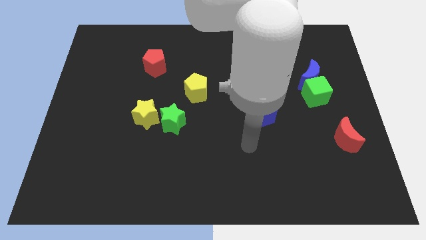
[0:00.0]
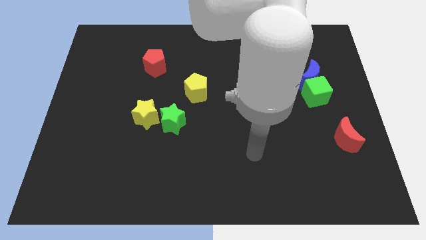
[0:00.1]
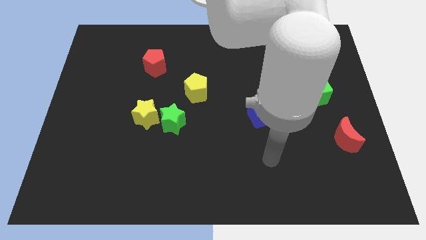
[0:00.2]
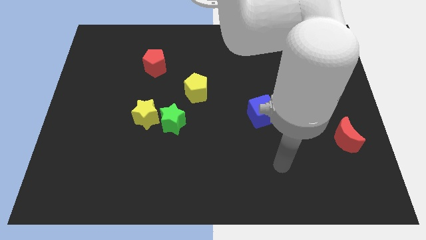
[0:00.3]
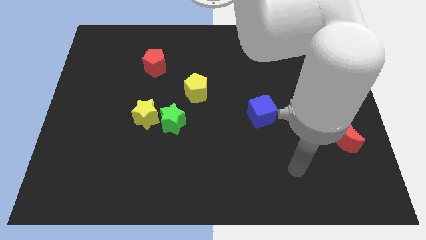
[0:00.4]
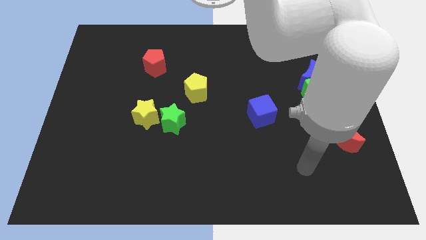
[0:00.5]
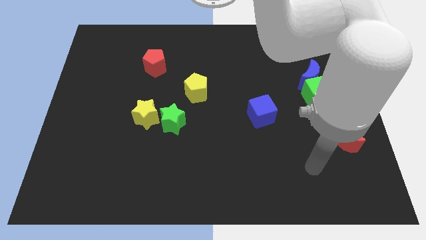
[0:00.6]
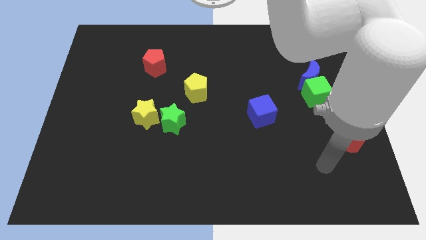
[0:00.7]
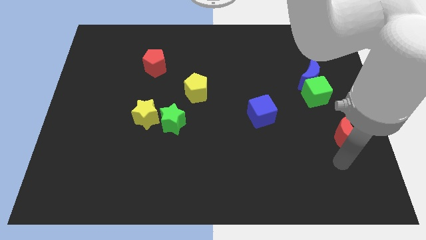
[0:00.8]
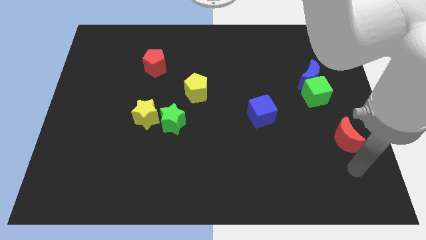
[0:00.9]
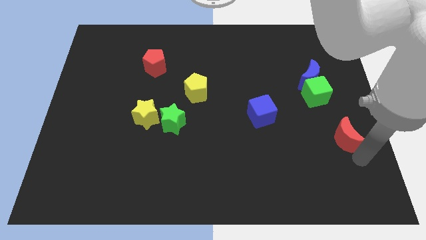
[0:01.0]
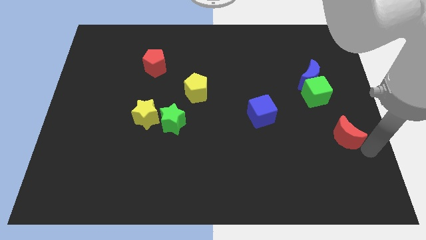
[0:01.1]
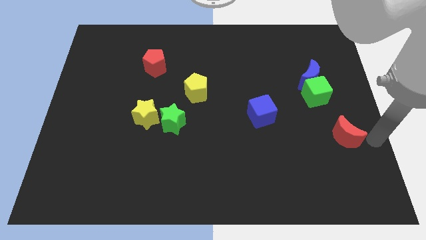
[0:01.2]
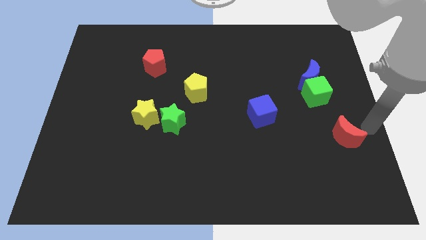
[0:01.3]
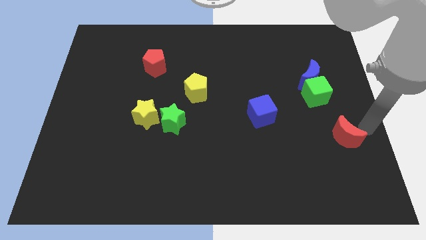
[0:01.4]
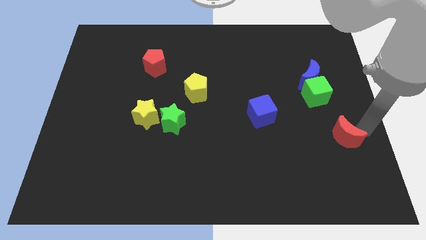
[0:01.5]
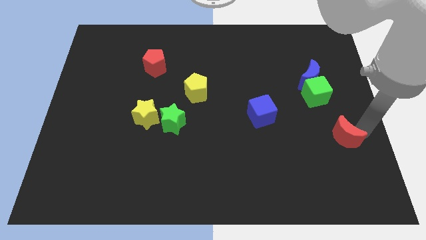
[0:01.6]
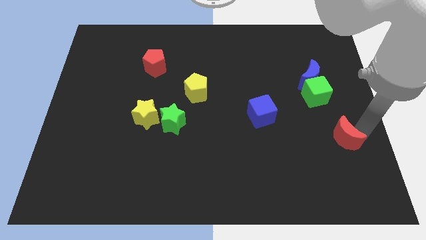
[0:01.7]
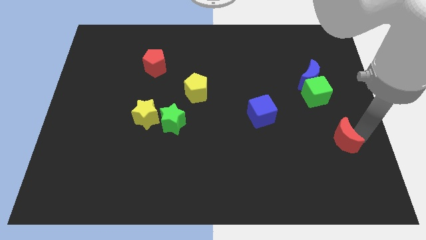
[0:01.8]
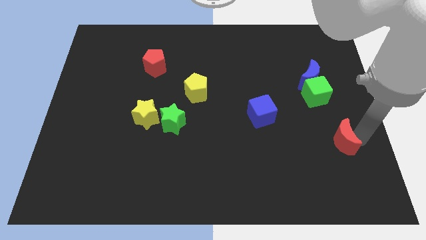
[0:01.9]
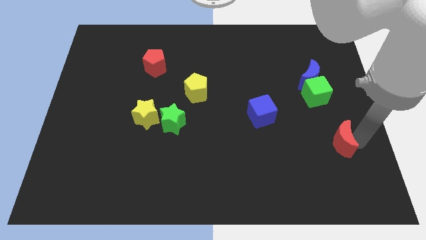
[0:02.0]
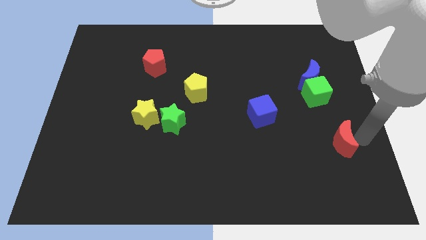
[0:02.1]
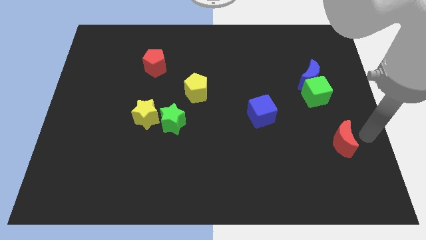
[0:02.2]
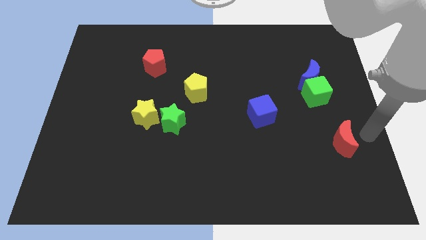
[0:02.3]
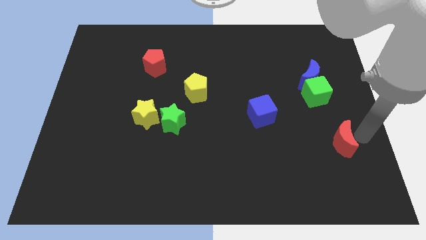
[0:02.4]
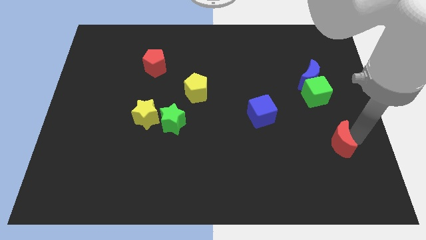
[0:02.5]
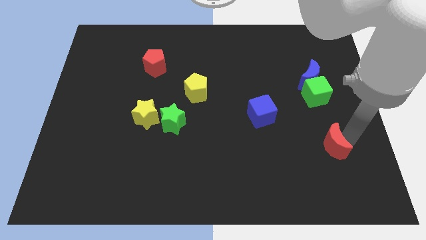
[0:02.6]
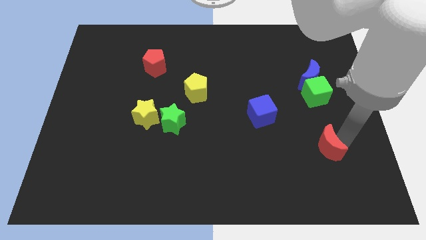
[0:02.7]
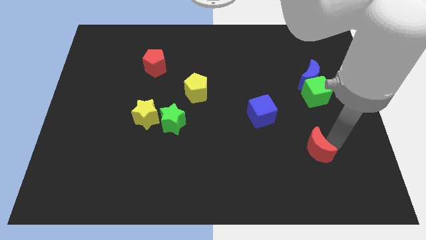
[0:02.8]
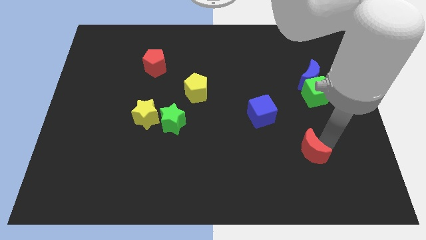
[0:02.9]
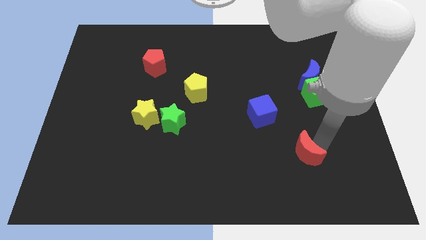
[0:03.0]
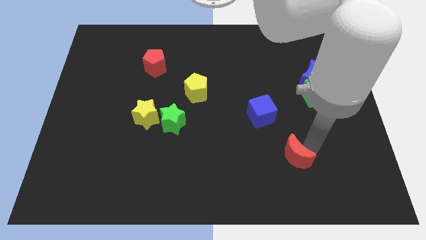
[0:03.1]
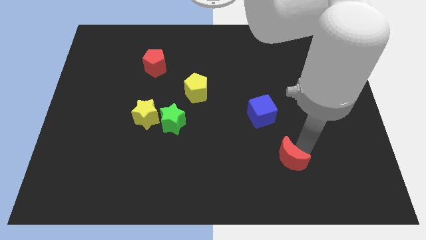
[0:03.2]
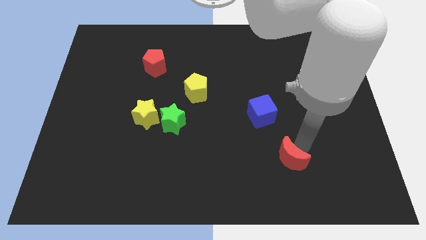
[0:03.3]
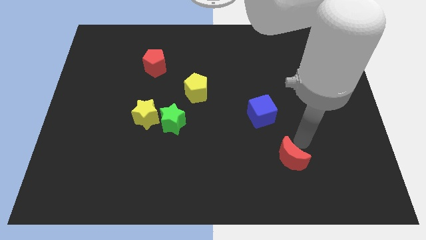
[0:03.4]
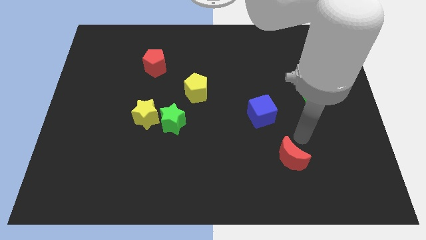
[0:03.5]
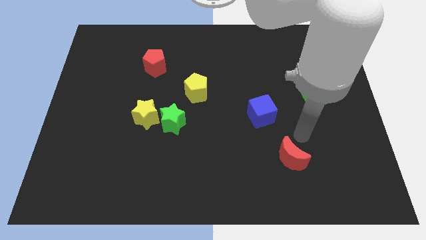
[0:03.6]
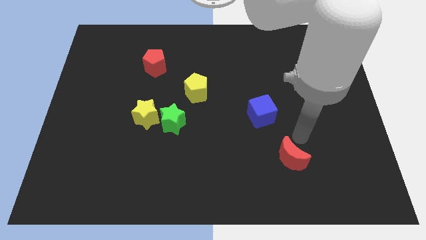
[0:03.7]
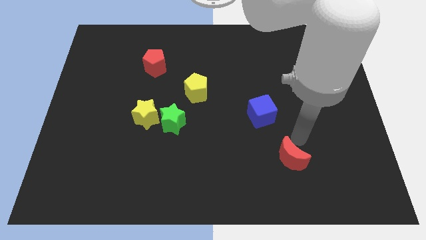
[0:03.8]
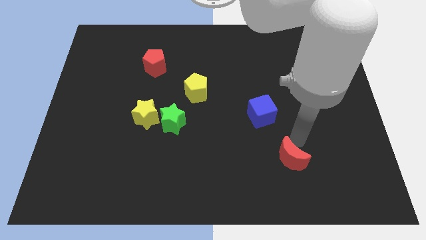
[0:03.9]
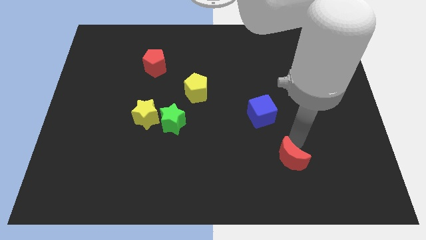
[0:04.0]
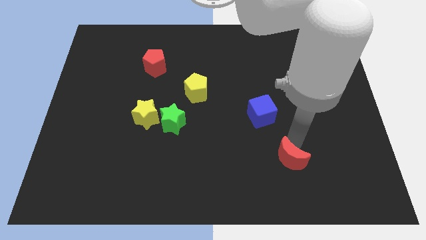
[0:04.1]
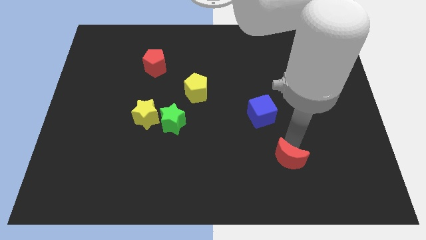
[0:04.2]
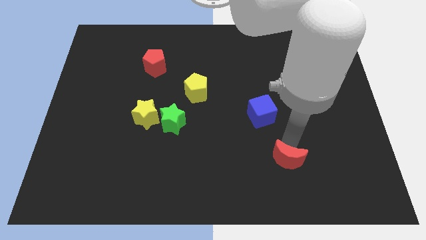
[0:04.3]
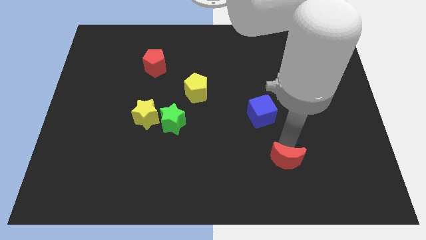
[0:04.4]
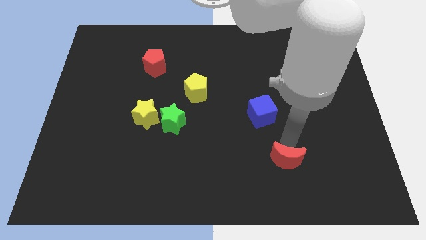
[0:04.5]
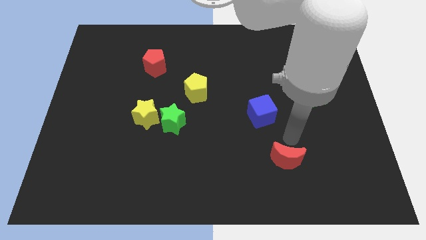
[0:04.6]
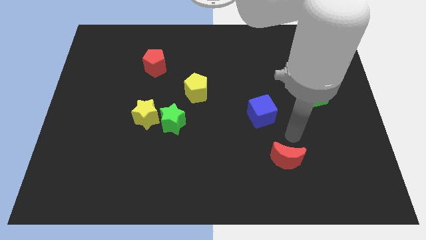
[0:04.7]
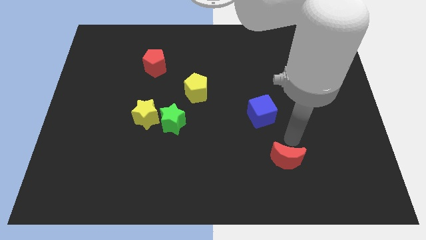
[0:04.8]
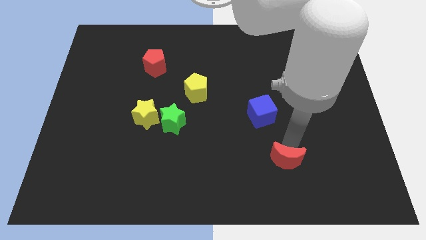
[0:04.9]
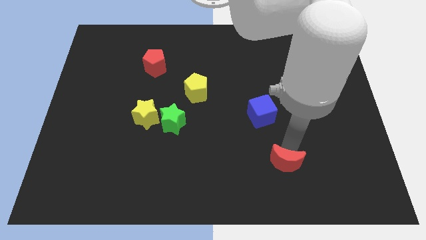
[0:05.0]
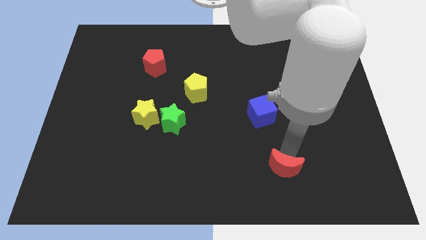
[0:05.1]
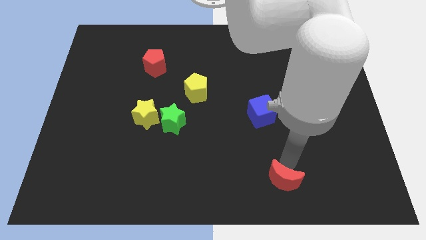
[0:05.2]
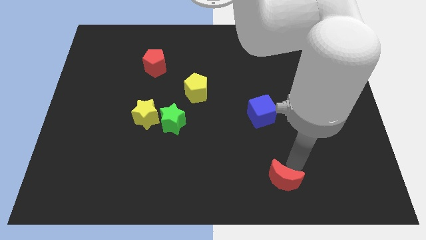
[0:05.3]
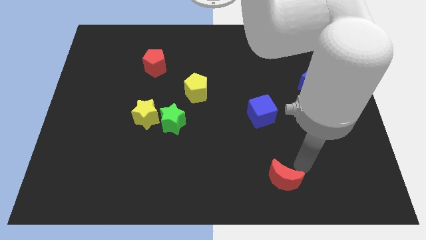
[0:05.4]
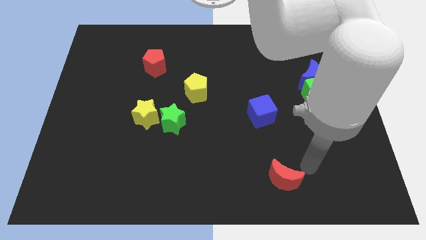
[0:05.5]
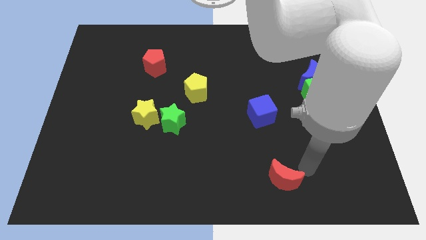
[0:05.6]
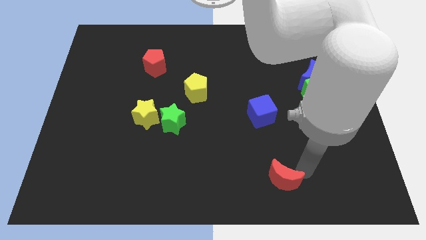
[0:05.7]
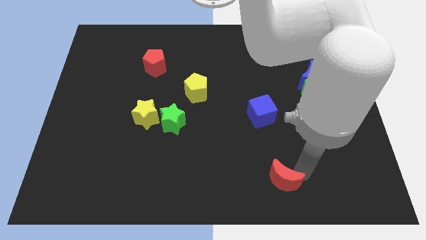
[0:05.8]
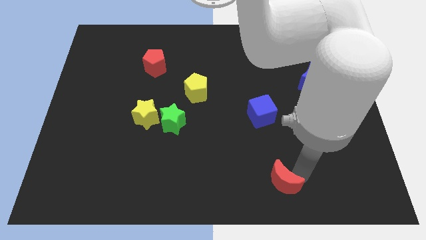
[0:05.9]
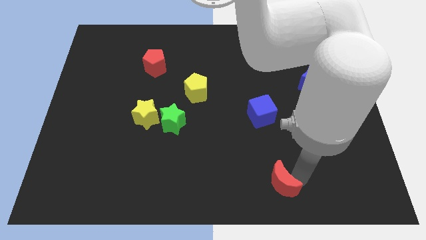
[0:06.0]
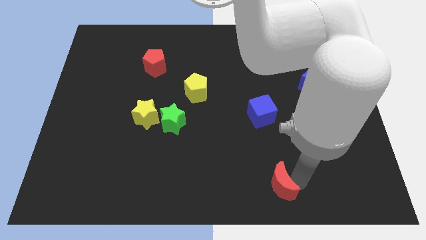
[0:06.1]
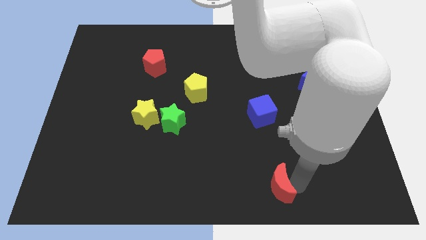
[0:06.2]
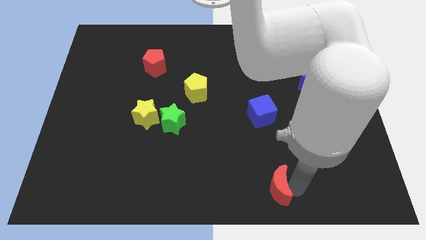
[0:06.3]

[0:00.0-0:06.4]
push the red moon to the bottom side
